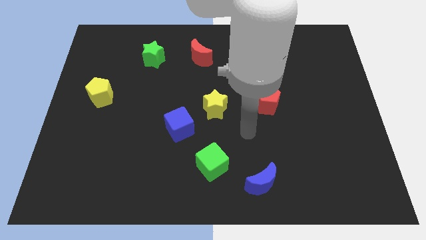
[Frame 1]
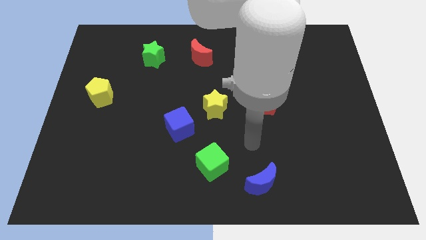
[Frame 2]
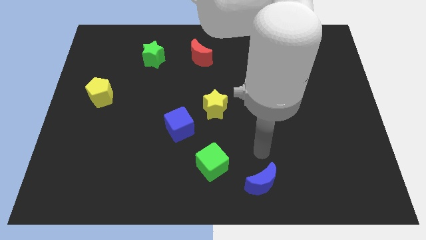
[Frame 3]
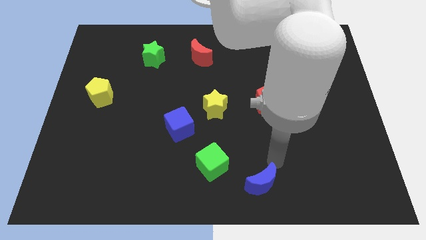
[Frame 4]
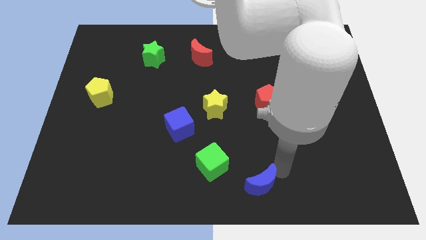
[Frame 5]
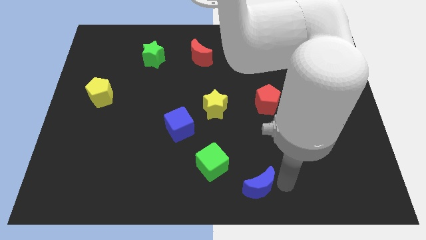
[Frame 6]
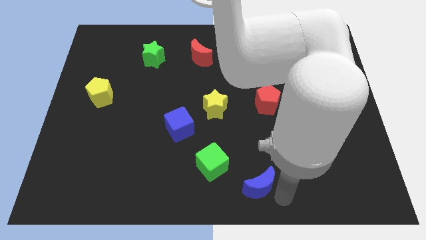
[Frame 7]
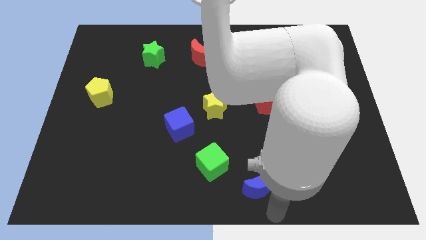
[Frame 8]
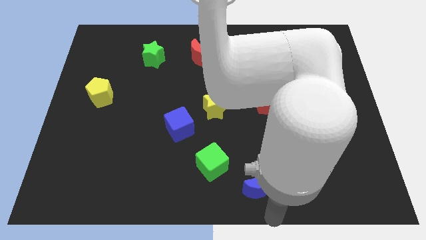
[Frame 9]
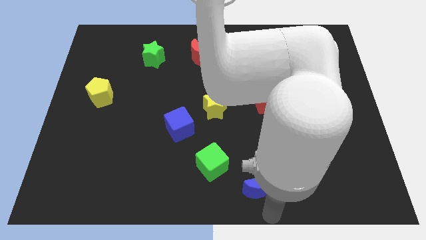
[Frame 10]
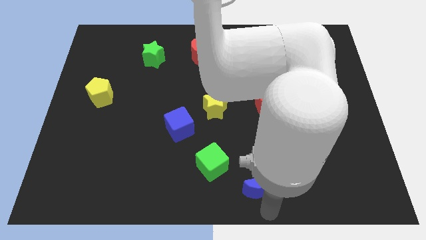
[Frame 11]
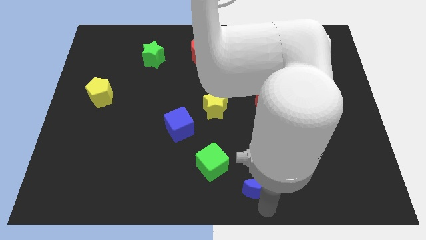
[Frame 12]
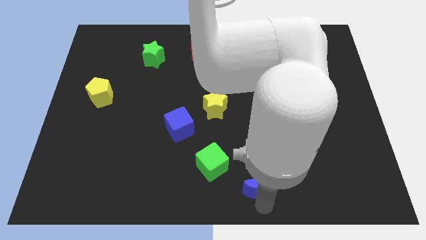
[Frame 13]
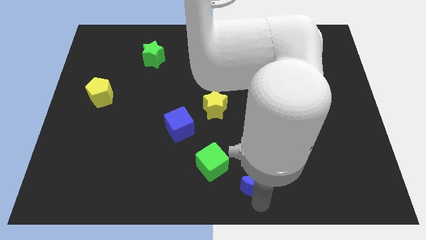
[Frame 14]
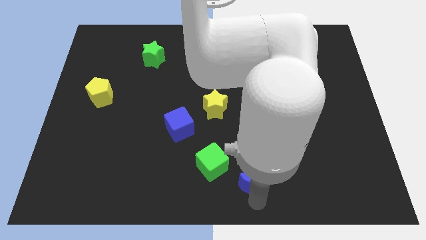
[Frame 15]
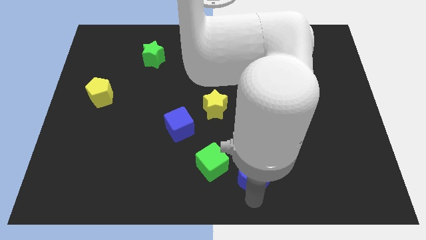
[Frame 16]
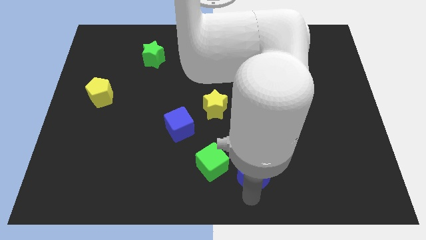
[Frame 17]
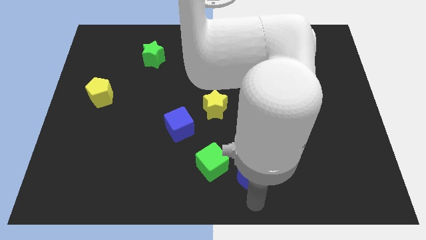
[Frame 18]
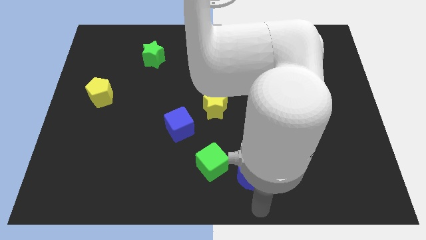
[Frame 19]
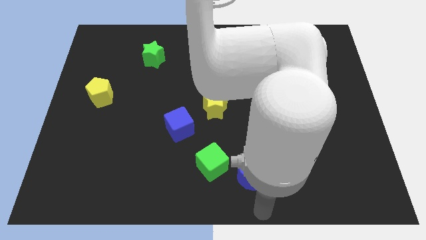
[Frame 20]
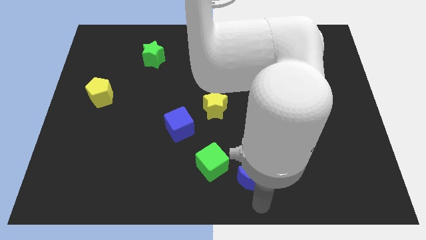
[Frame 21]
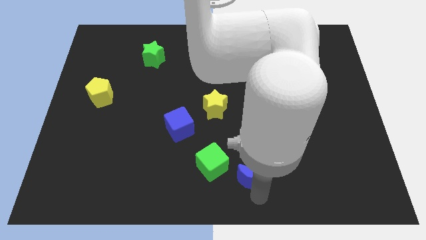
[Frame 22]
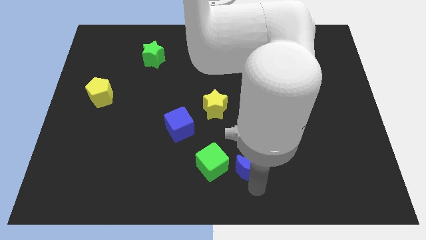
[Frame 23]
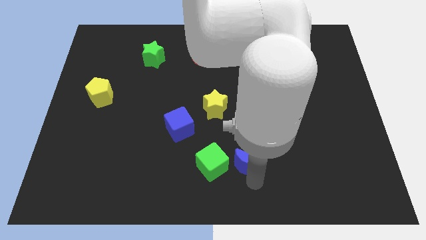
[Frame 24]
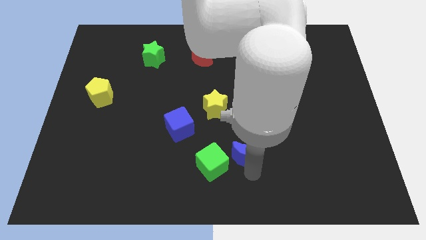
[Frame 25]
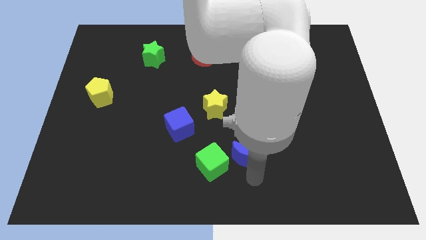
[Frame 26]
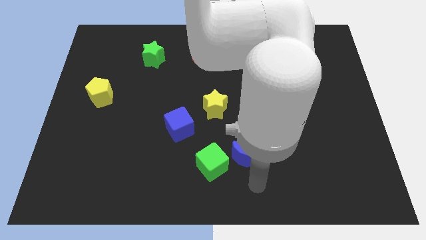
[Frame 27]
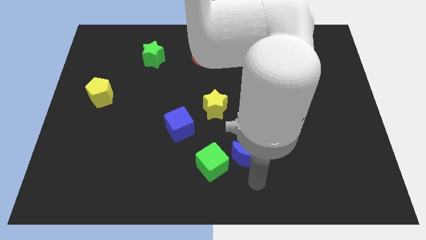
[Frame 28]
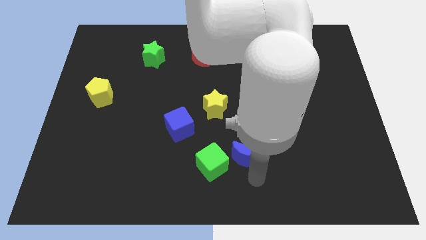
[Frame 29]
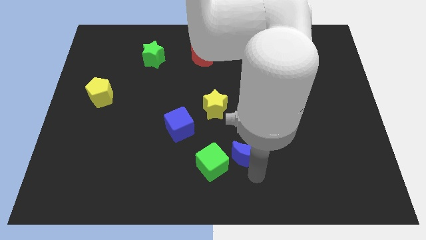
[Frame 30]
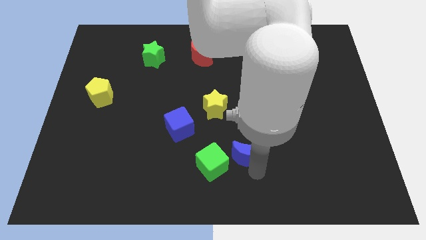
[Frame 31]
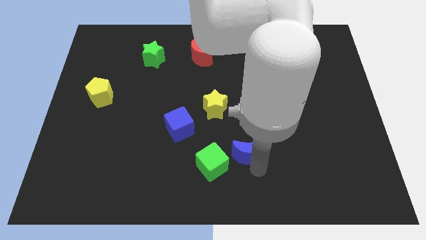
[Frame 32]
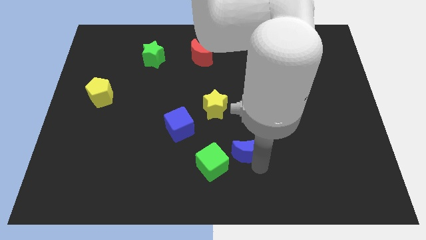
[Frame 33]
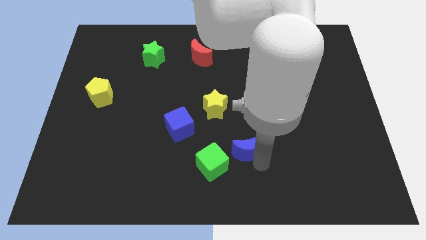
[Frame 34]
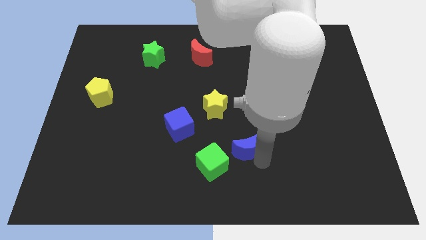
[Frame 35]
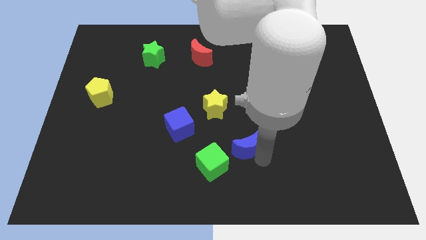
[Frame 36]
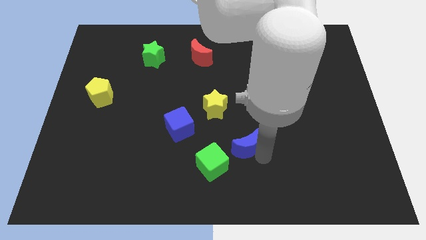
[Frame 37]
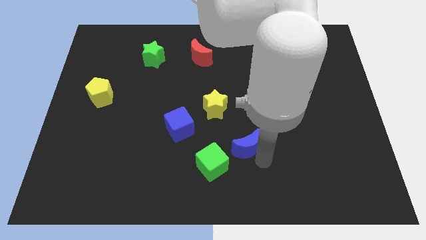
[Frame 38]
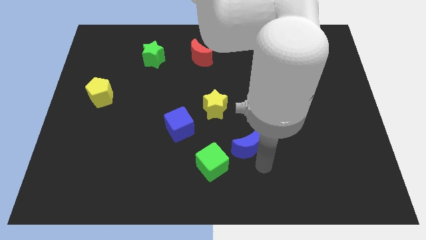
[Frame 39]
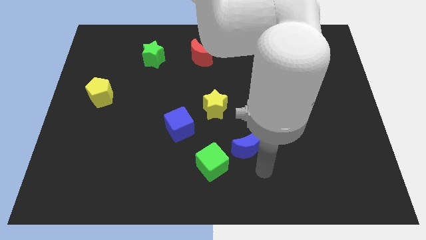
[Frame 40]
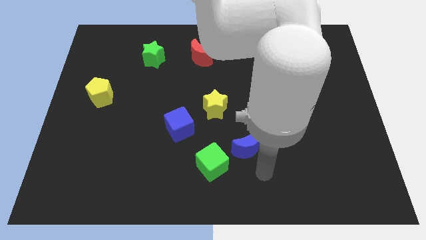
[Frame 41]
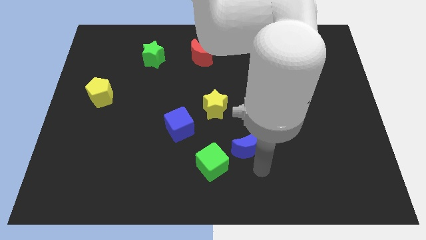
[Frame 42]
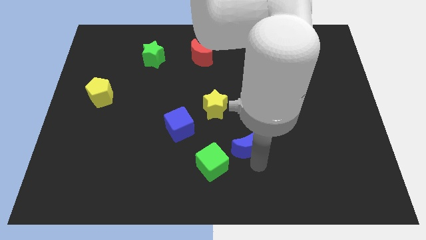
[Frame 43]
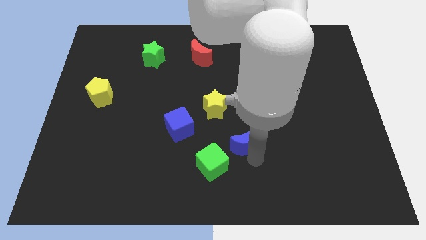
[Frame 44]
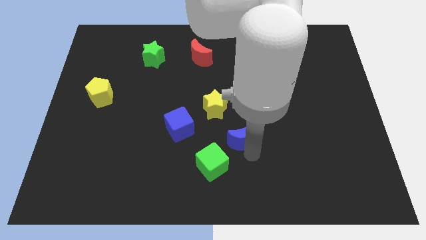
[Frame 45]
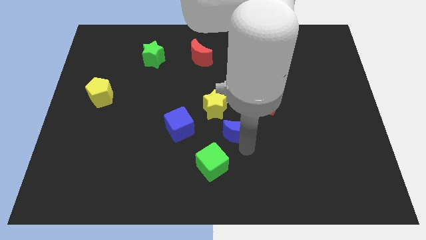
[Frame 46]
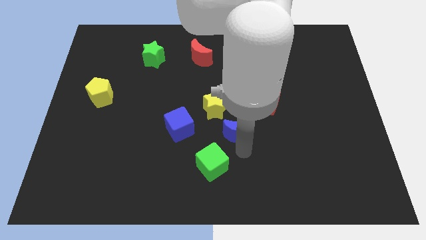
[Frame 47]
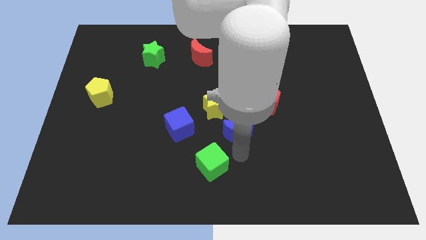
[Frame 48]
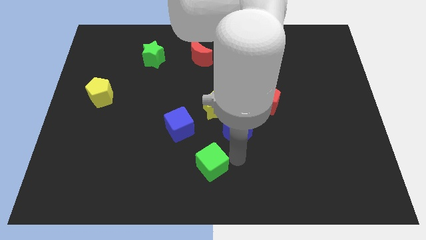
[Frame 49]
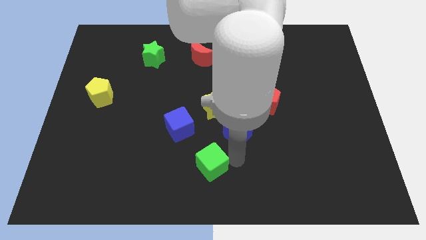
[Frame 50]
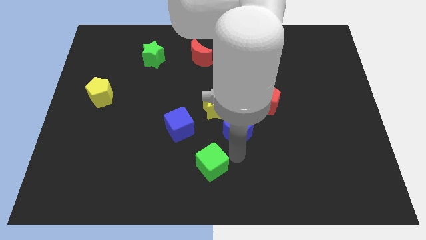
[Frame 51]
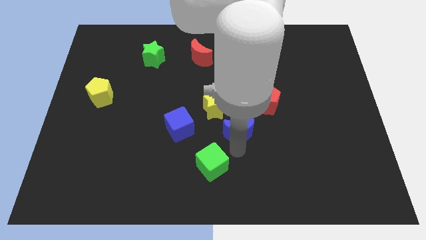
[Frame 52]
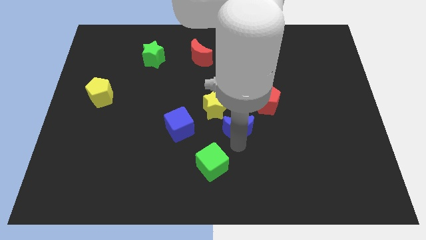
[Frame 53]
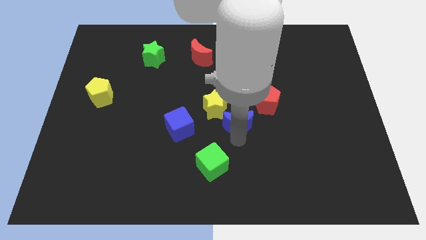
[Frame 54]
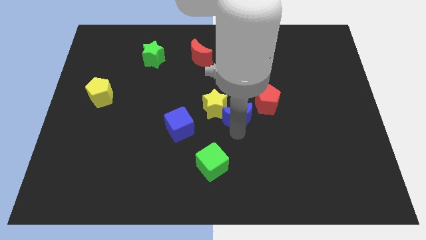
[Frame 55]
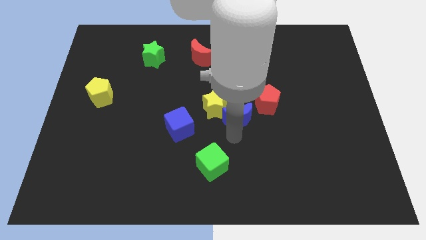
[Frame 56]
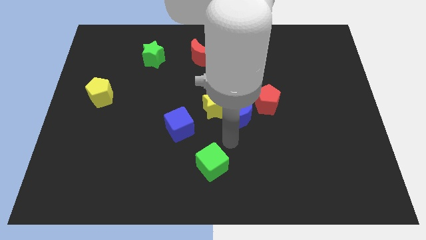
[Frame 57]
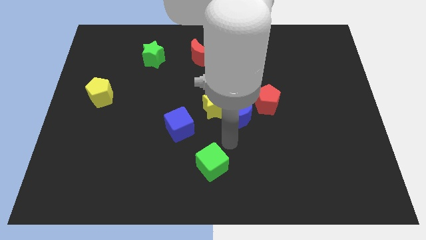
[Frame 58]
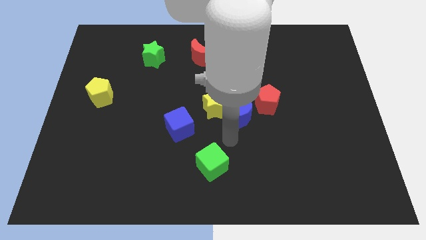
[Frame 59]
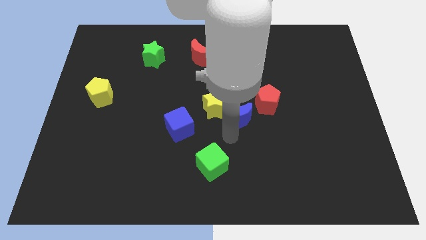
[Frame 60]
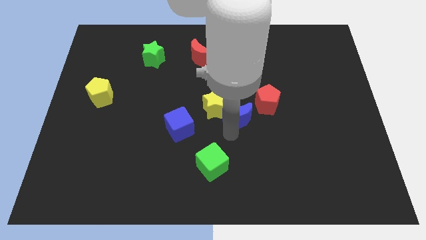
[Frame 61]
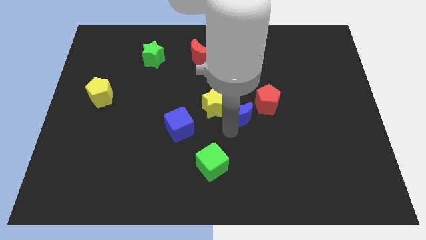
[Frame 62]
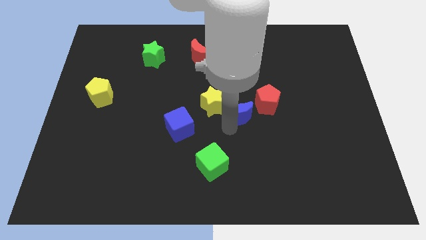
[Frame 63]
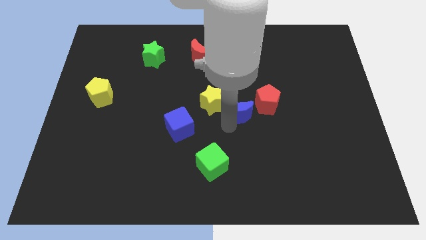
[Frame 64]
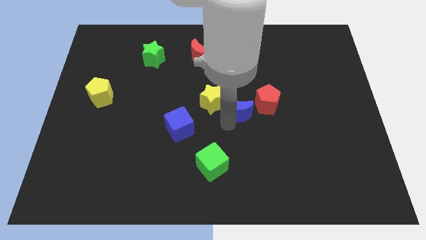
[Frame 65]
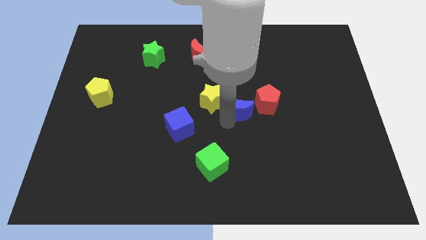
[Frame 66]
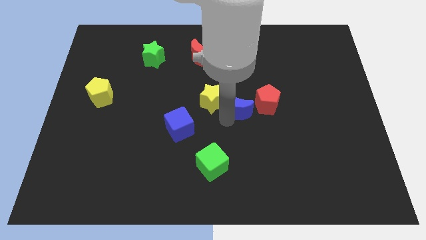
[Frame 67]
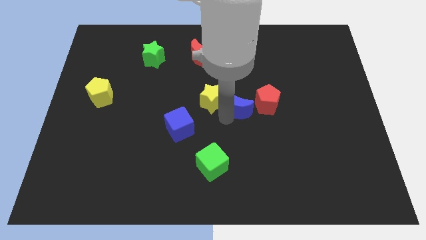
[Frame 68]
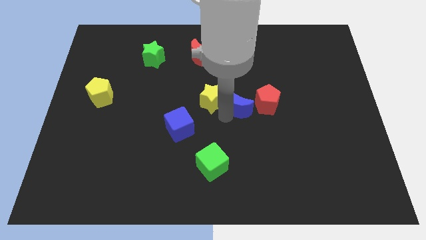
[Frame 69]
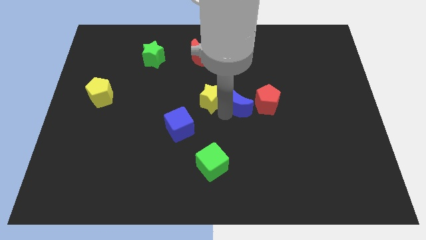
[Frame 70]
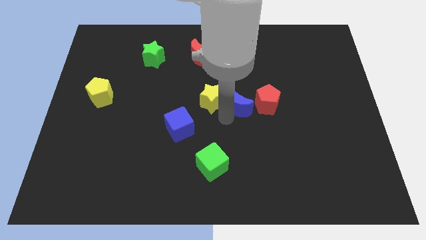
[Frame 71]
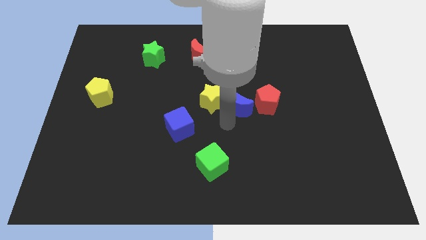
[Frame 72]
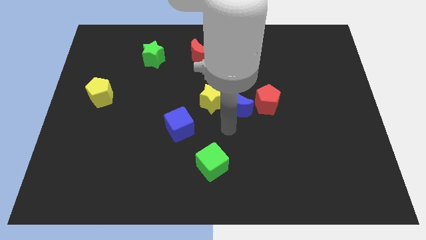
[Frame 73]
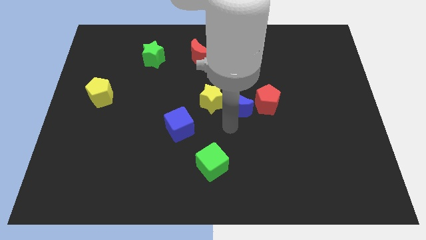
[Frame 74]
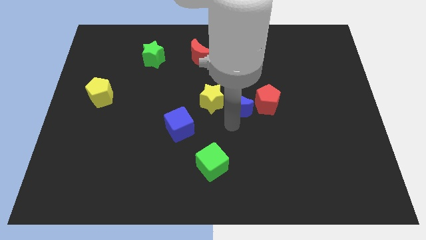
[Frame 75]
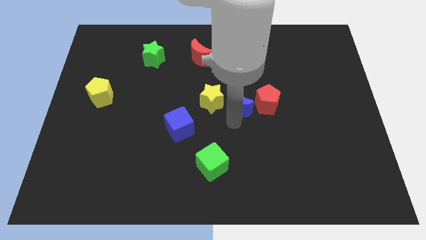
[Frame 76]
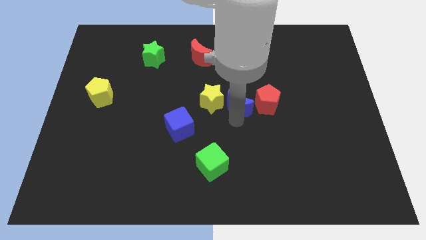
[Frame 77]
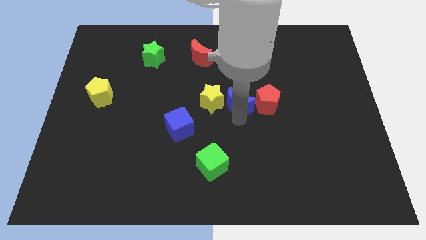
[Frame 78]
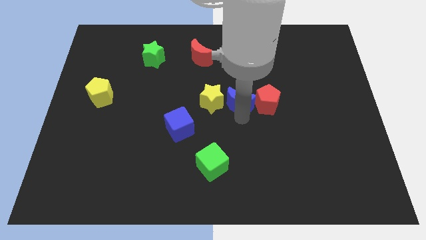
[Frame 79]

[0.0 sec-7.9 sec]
push the blue moon upwards

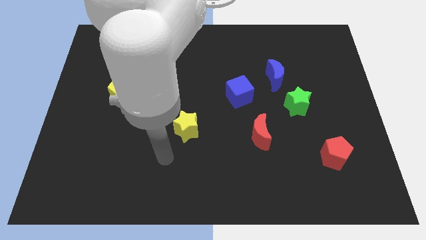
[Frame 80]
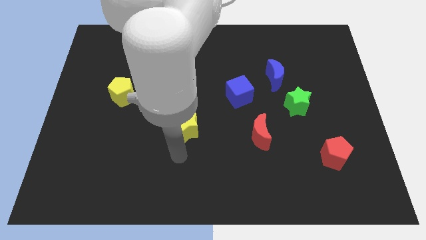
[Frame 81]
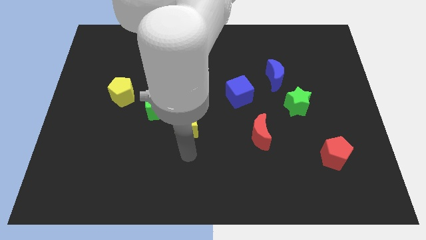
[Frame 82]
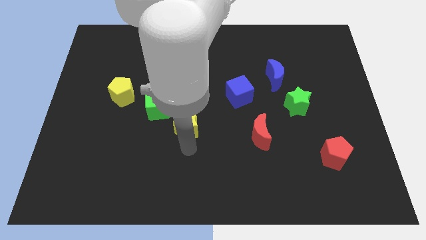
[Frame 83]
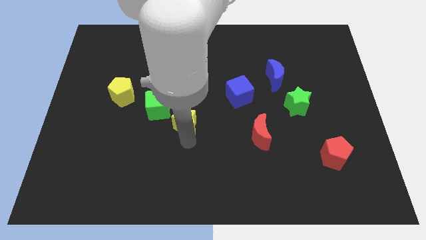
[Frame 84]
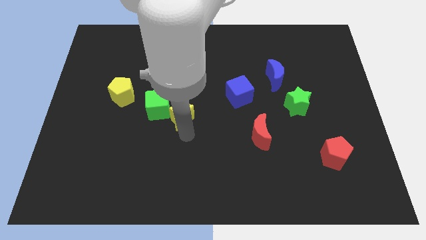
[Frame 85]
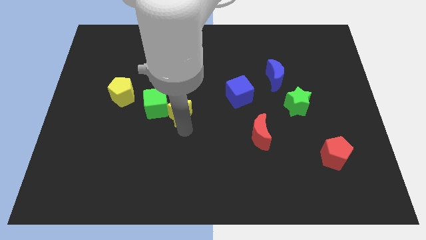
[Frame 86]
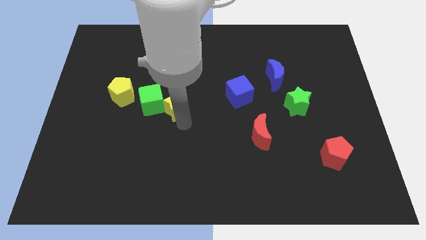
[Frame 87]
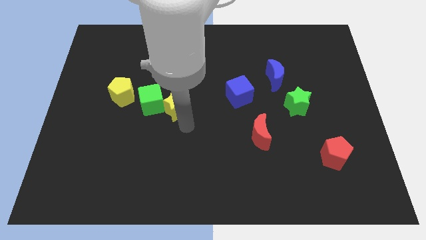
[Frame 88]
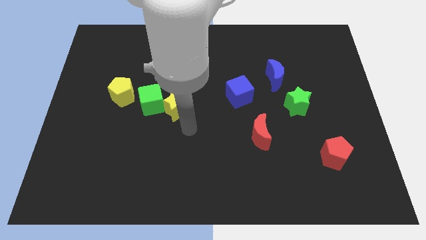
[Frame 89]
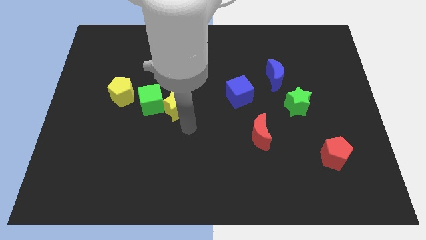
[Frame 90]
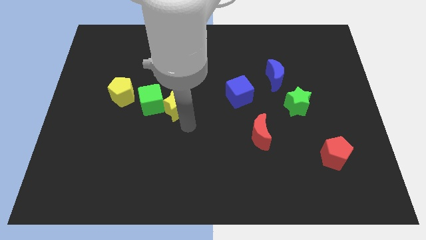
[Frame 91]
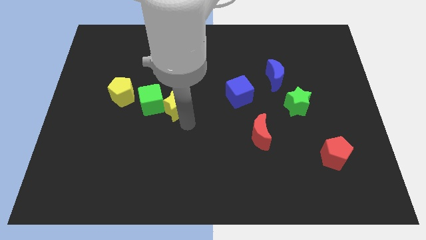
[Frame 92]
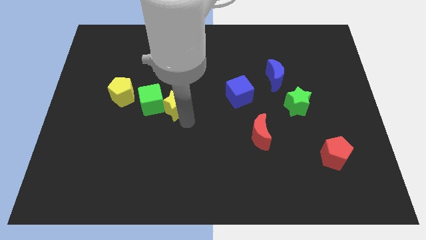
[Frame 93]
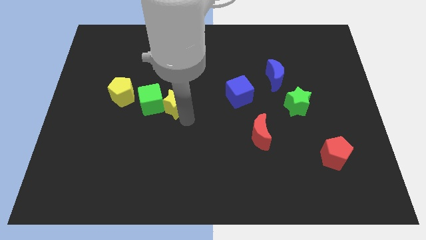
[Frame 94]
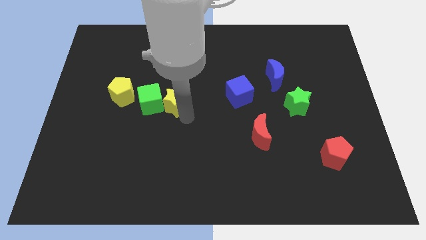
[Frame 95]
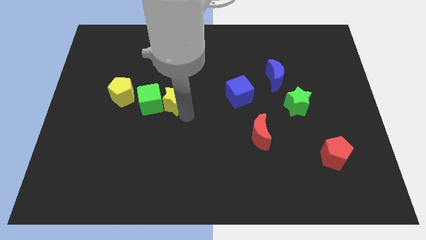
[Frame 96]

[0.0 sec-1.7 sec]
slightly push the yellow star diagonally up and left
